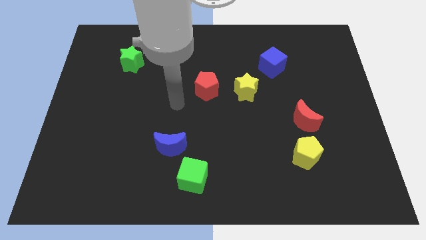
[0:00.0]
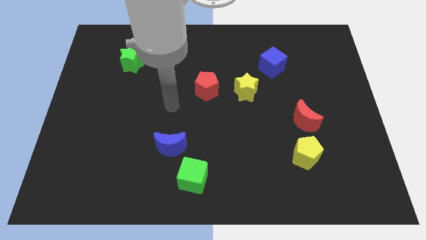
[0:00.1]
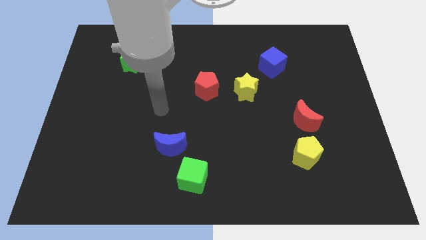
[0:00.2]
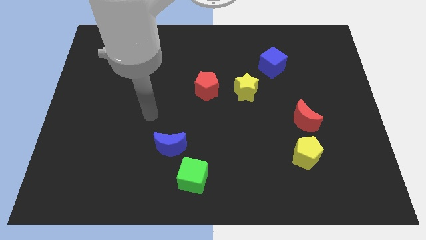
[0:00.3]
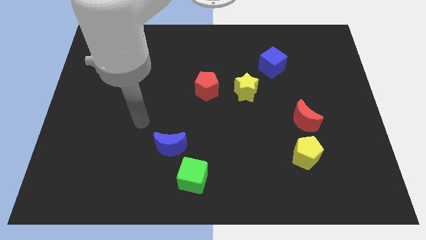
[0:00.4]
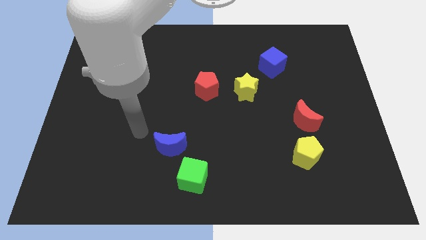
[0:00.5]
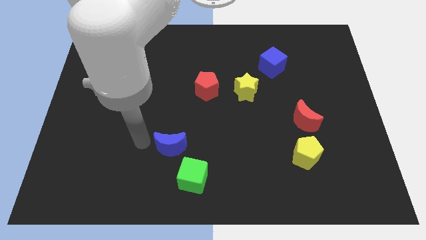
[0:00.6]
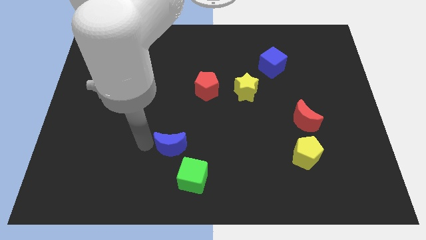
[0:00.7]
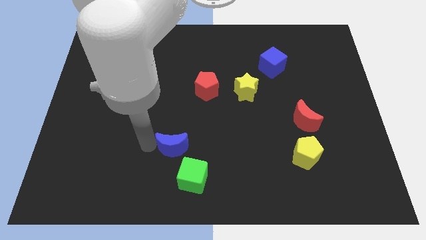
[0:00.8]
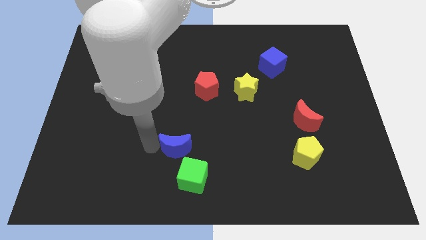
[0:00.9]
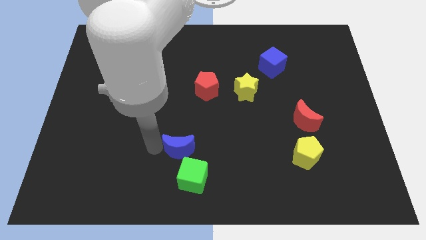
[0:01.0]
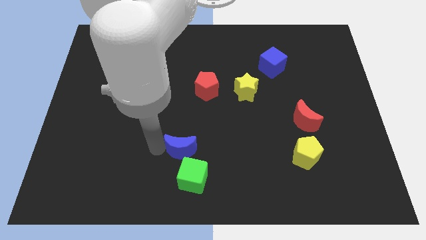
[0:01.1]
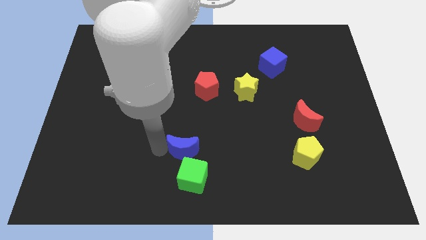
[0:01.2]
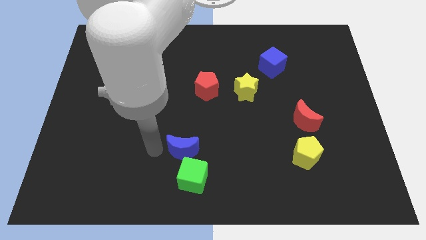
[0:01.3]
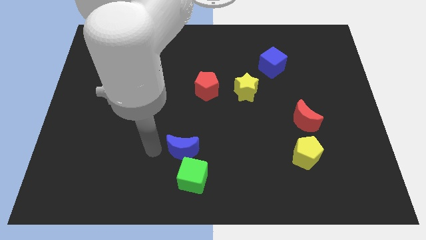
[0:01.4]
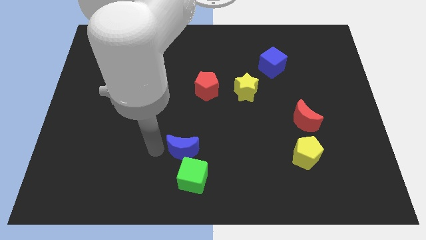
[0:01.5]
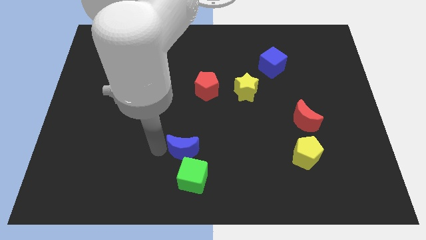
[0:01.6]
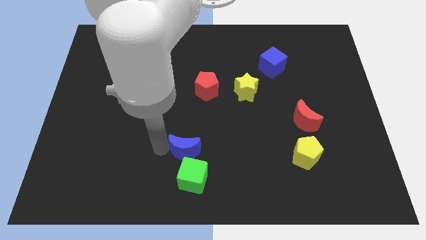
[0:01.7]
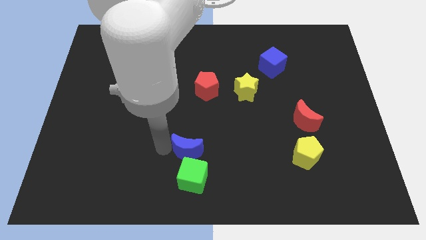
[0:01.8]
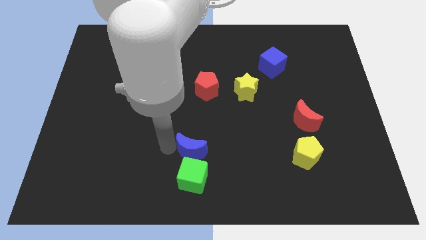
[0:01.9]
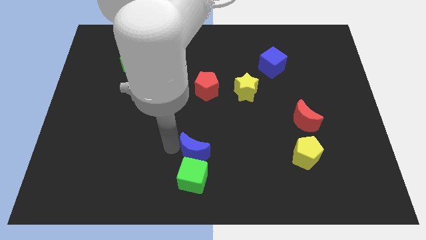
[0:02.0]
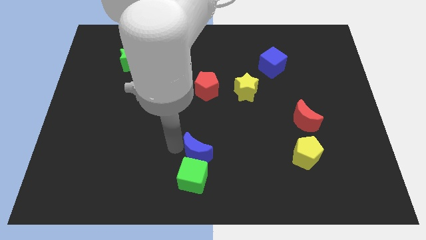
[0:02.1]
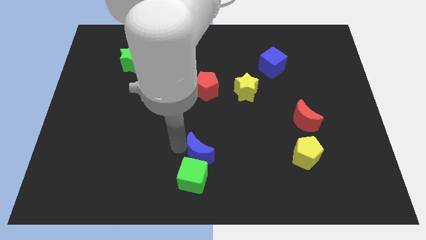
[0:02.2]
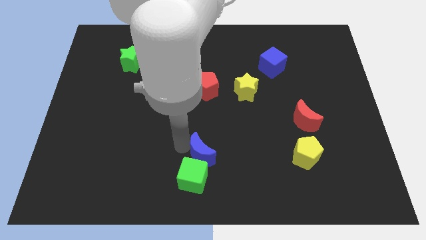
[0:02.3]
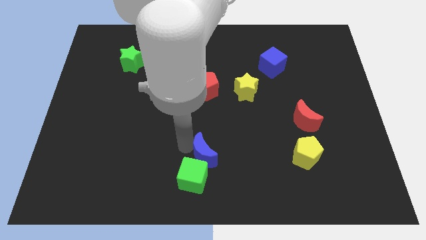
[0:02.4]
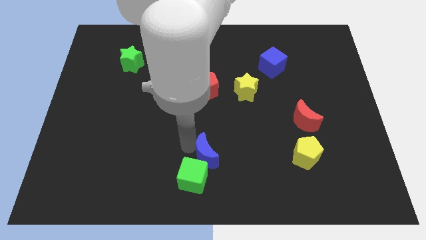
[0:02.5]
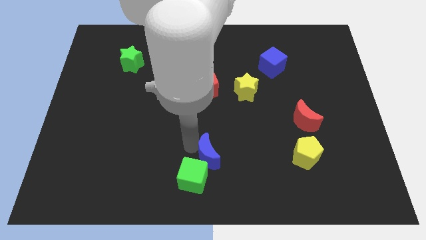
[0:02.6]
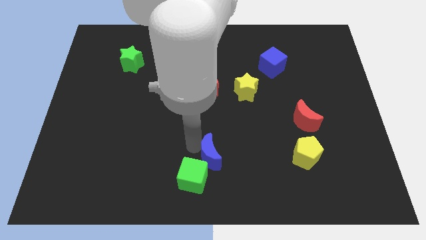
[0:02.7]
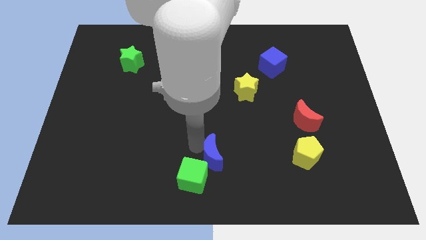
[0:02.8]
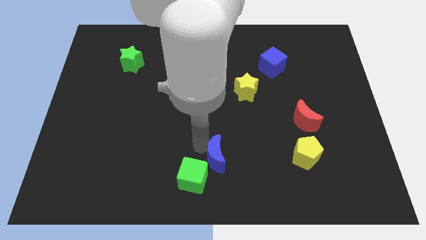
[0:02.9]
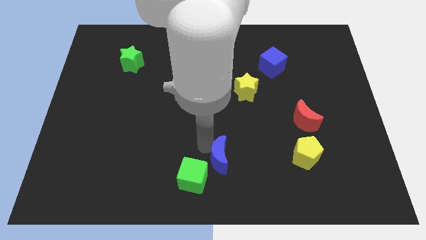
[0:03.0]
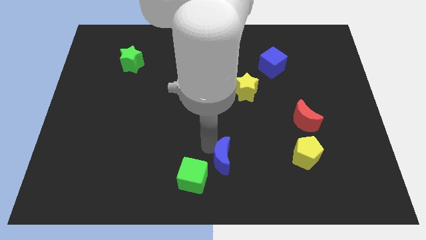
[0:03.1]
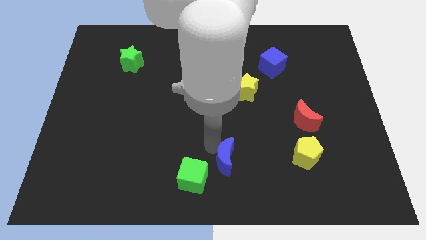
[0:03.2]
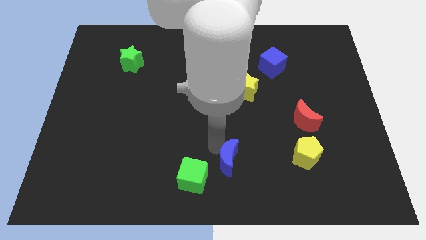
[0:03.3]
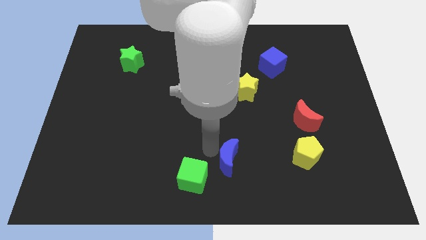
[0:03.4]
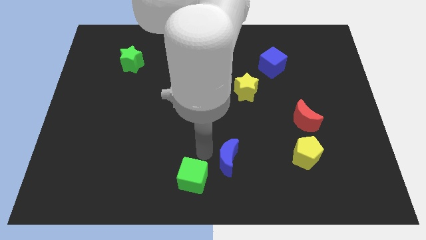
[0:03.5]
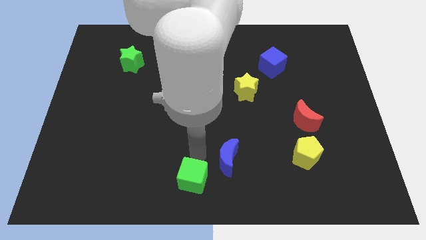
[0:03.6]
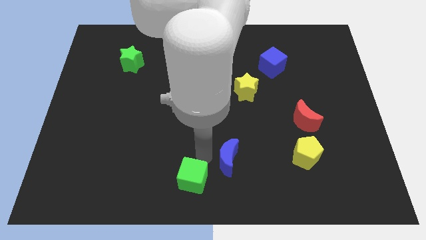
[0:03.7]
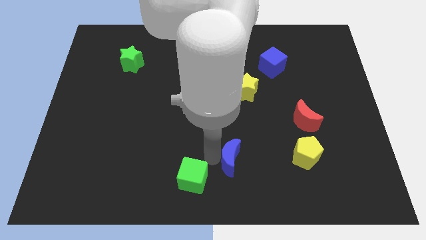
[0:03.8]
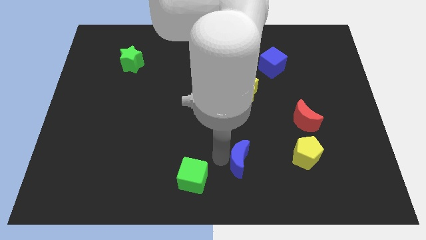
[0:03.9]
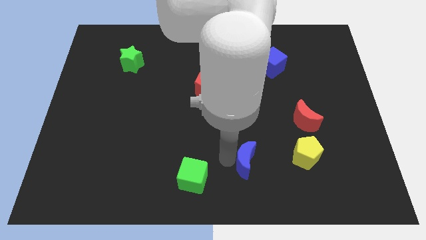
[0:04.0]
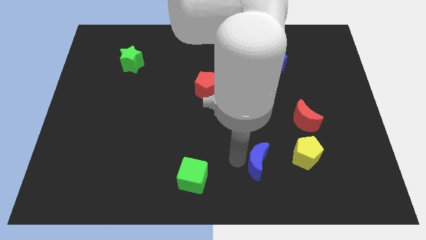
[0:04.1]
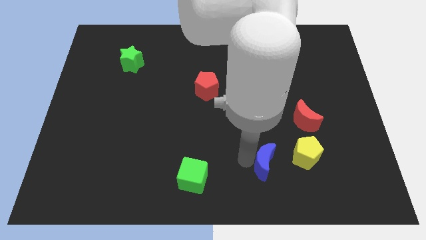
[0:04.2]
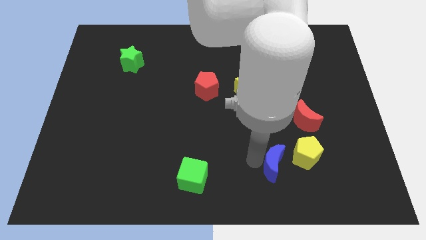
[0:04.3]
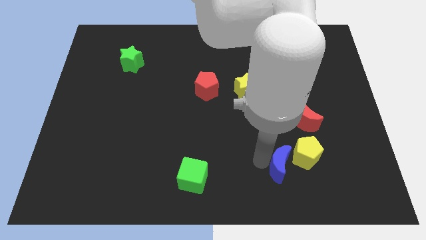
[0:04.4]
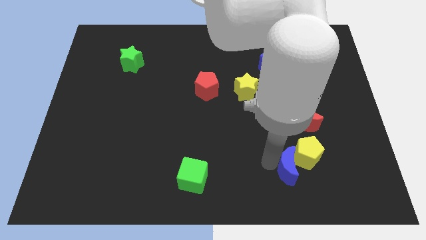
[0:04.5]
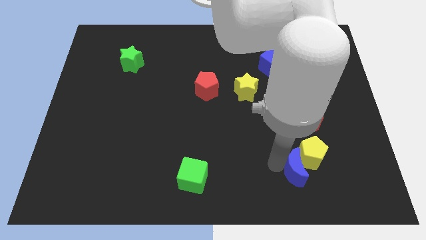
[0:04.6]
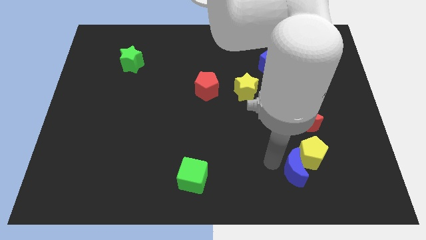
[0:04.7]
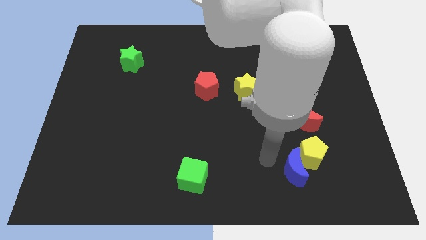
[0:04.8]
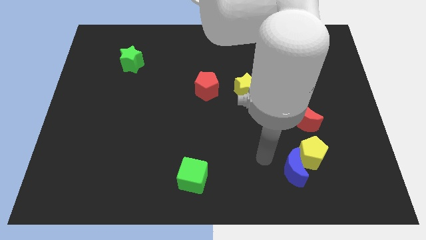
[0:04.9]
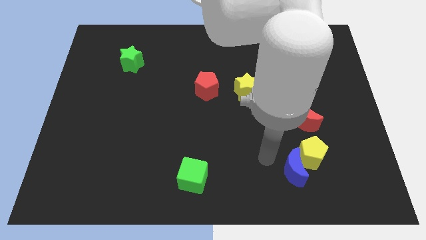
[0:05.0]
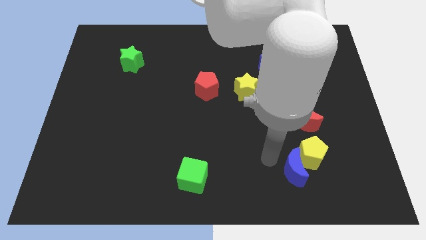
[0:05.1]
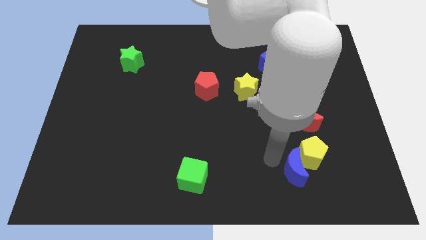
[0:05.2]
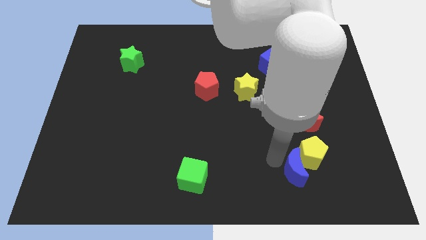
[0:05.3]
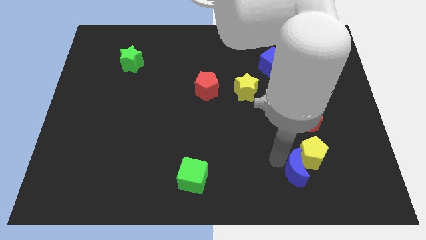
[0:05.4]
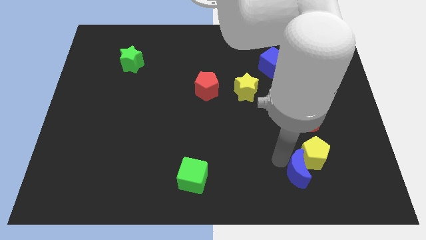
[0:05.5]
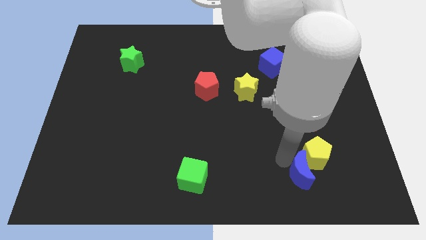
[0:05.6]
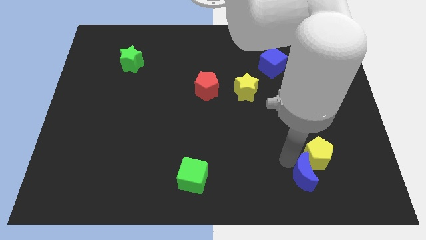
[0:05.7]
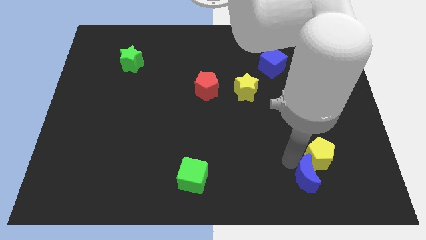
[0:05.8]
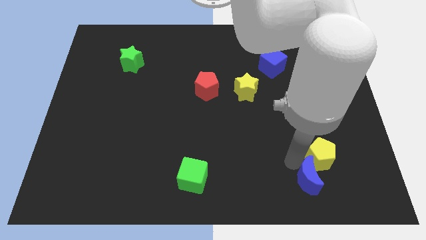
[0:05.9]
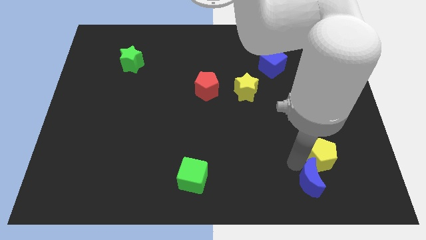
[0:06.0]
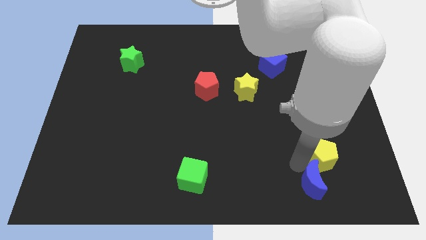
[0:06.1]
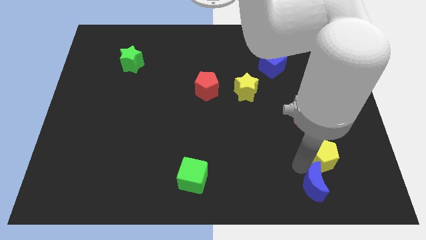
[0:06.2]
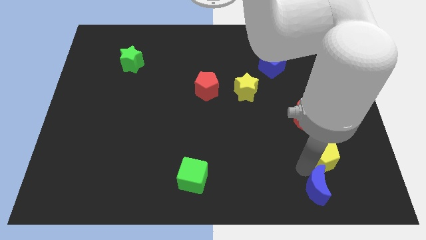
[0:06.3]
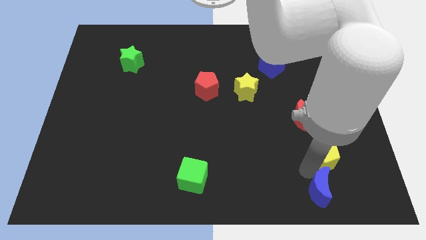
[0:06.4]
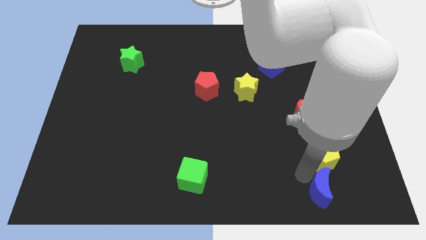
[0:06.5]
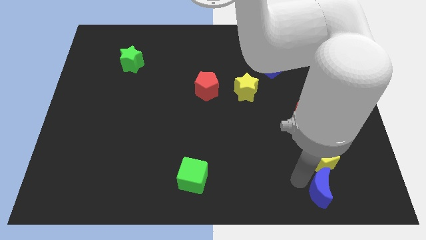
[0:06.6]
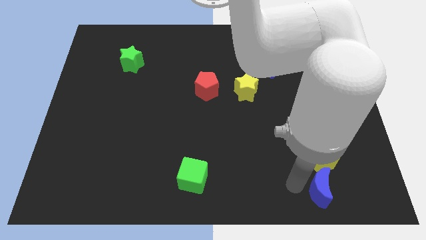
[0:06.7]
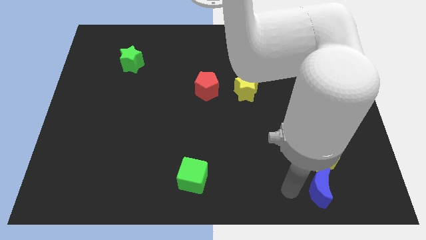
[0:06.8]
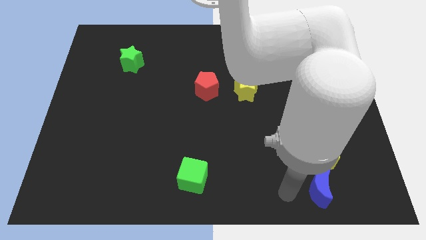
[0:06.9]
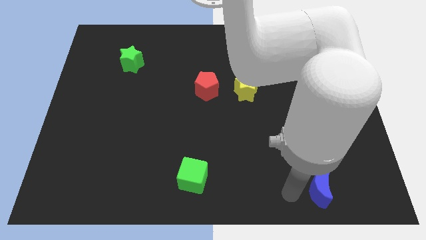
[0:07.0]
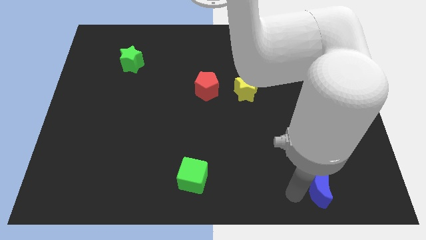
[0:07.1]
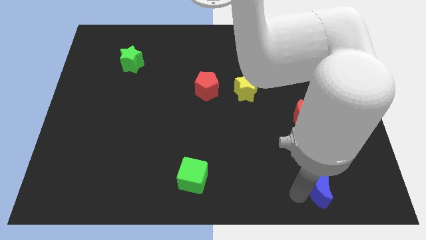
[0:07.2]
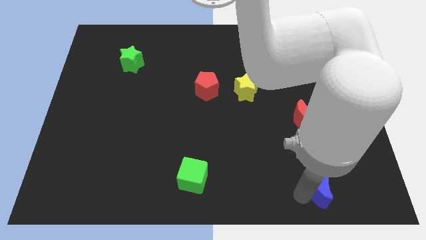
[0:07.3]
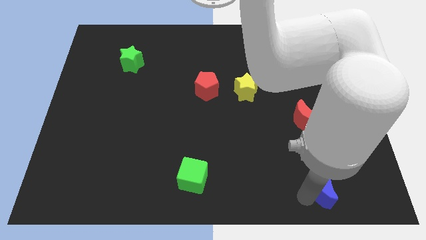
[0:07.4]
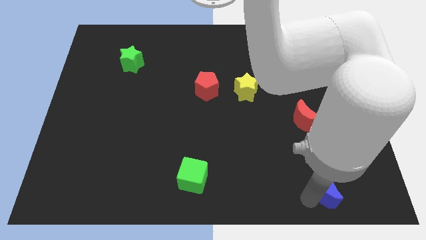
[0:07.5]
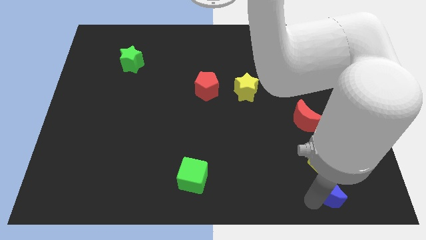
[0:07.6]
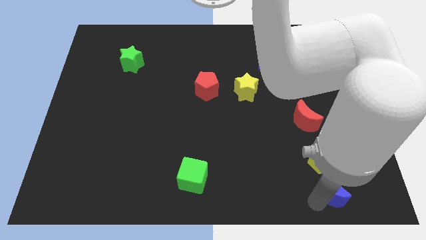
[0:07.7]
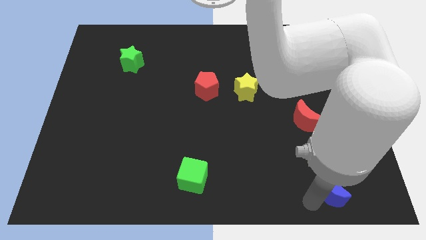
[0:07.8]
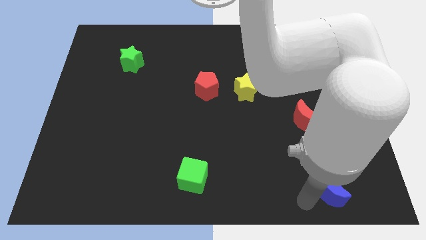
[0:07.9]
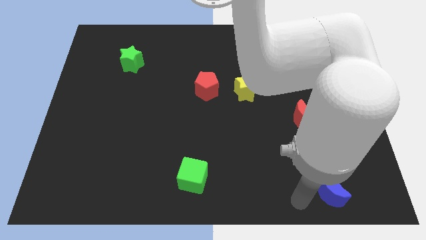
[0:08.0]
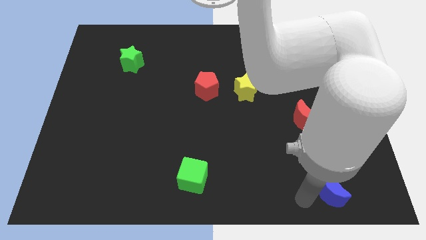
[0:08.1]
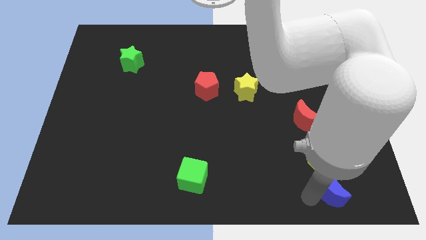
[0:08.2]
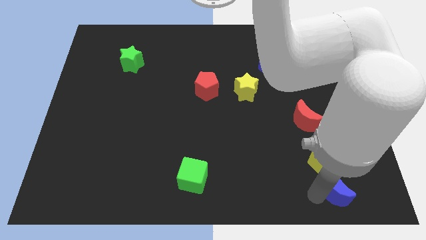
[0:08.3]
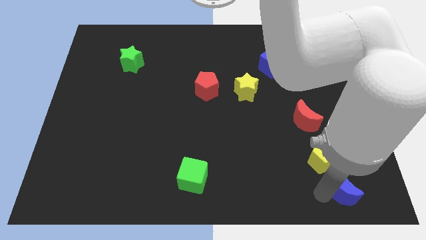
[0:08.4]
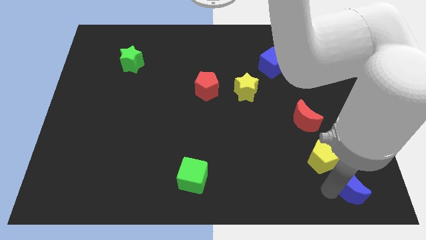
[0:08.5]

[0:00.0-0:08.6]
push the blue moon to the bottom right corner
